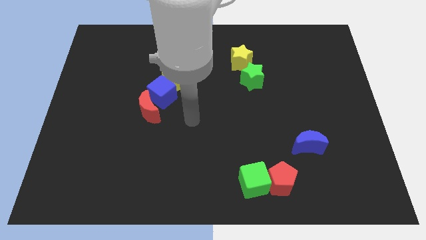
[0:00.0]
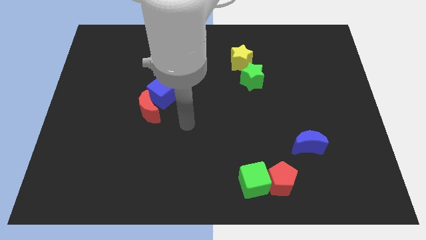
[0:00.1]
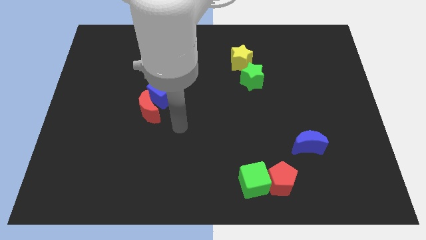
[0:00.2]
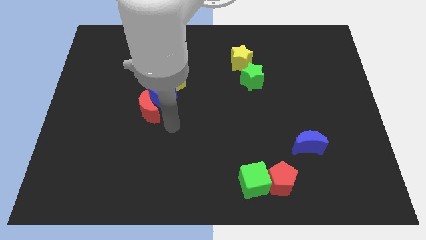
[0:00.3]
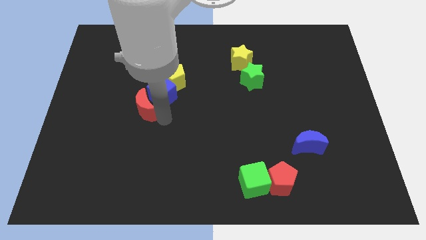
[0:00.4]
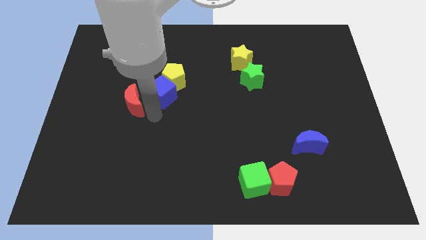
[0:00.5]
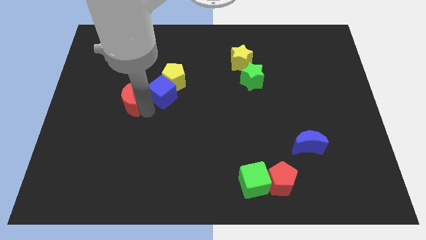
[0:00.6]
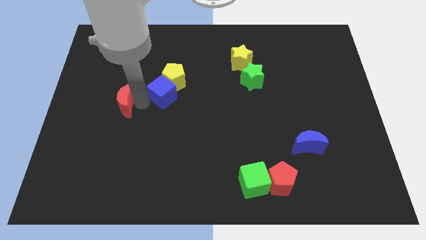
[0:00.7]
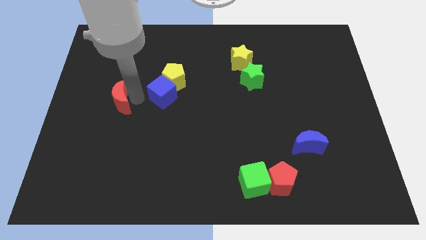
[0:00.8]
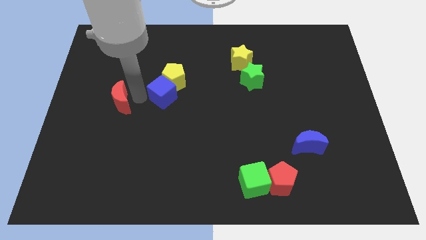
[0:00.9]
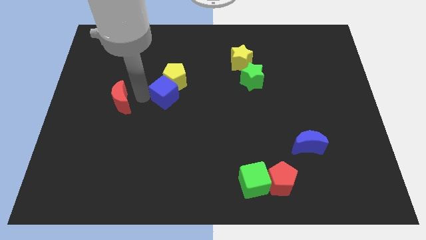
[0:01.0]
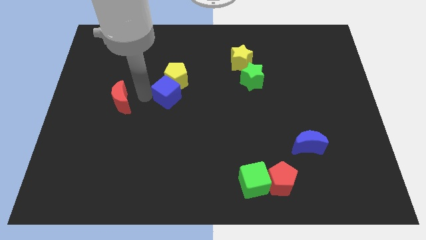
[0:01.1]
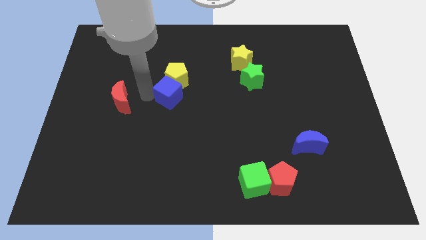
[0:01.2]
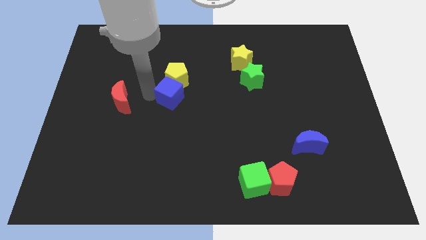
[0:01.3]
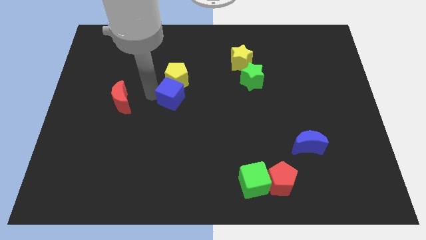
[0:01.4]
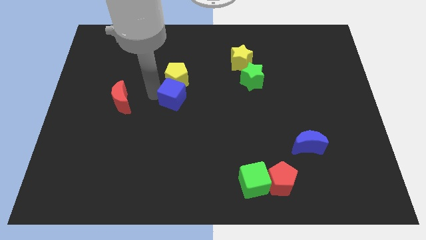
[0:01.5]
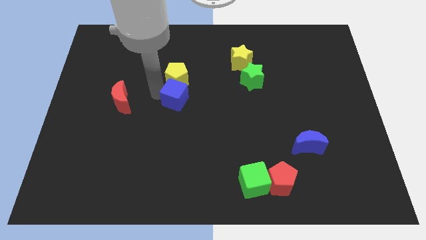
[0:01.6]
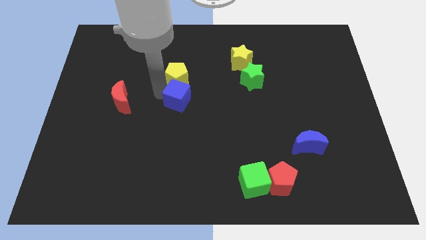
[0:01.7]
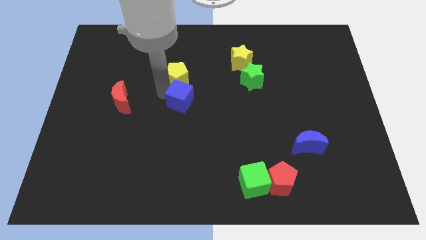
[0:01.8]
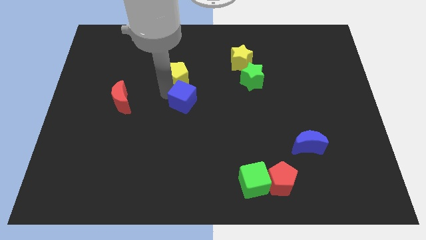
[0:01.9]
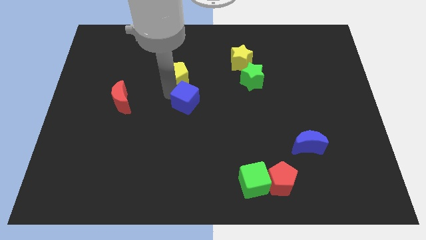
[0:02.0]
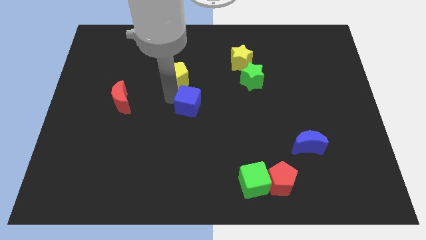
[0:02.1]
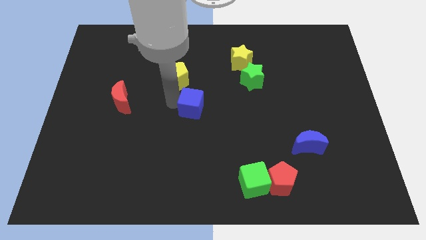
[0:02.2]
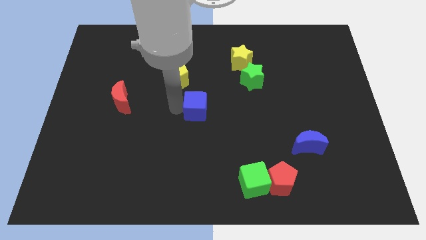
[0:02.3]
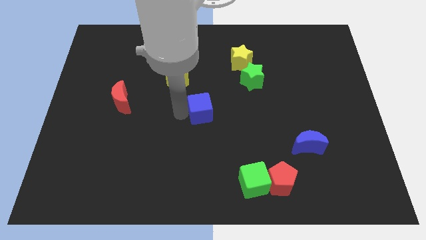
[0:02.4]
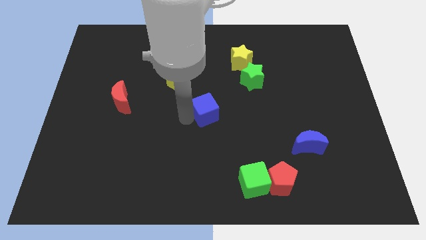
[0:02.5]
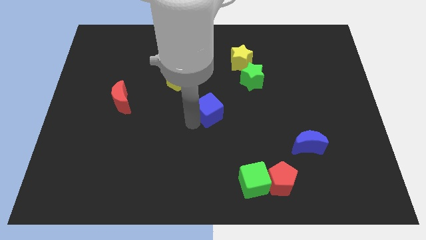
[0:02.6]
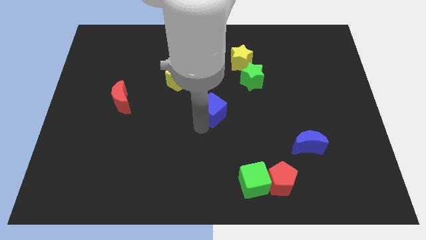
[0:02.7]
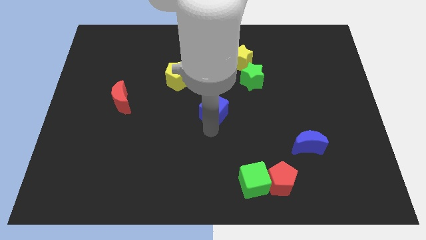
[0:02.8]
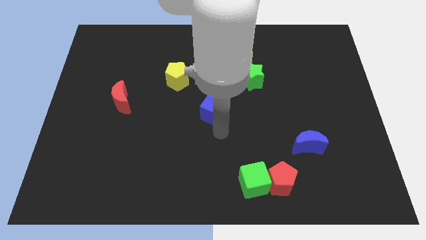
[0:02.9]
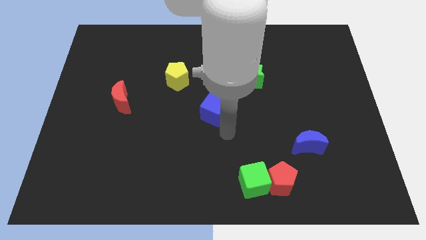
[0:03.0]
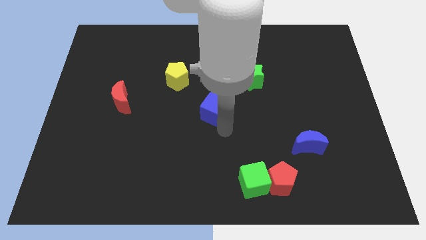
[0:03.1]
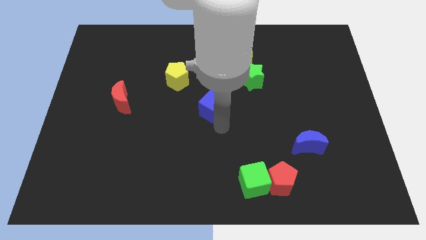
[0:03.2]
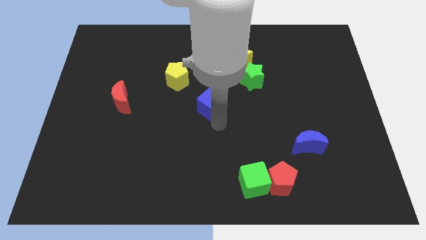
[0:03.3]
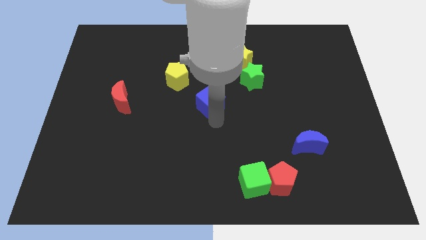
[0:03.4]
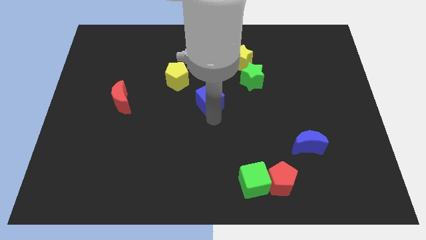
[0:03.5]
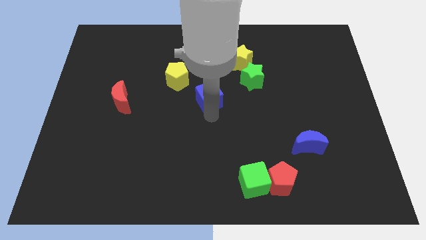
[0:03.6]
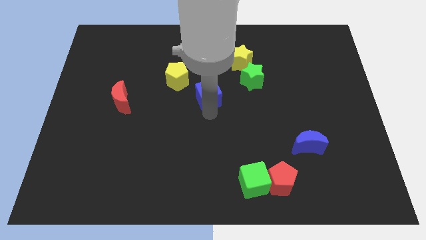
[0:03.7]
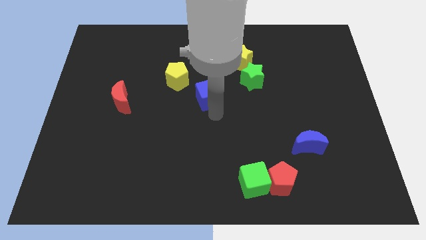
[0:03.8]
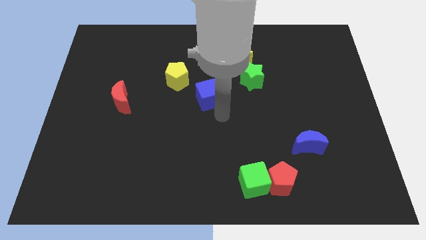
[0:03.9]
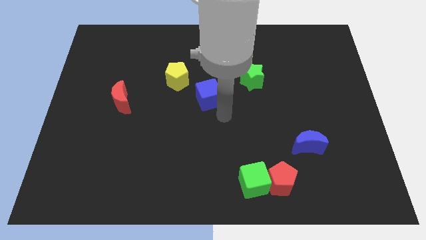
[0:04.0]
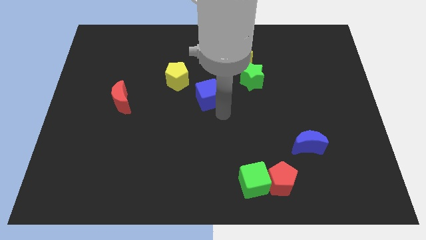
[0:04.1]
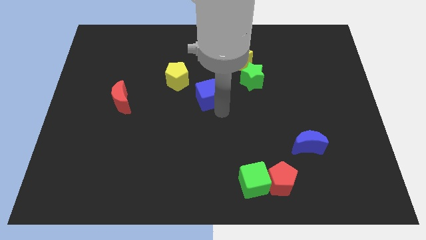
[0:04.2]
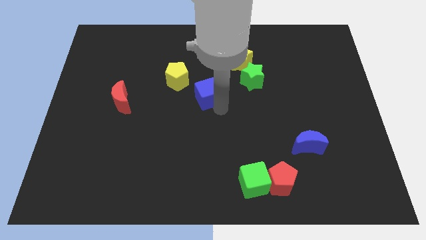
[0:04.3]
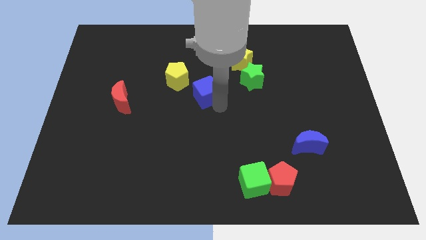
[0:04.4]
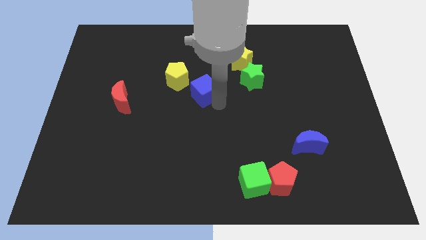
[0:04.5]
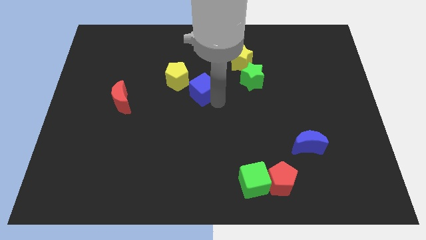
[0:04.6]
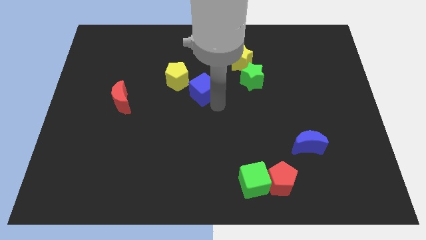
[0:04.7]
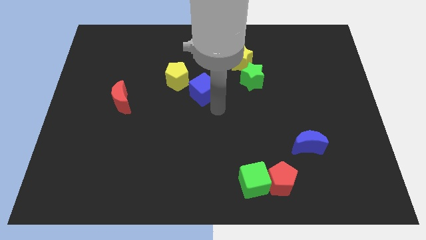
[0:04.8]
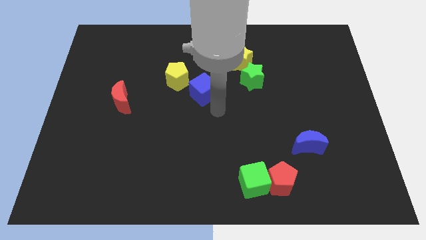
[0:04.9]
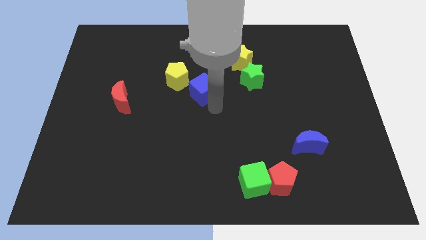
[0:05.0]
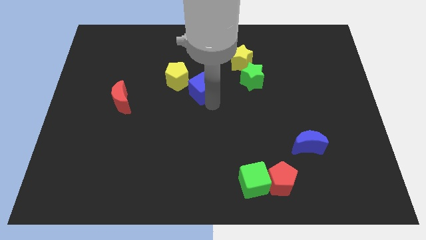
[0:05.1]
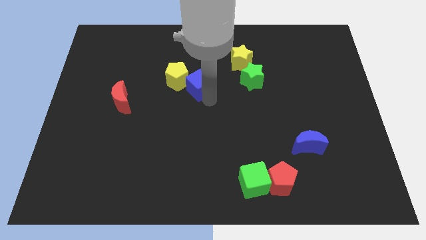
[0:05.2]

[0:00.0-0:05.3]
slightly move the blue cube upwards and right

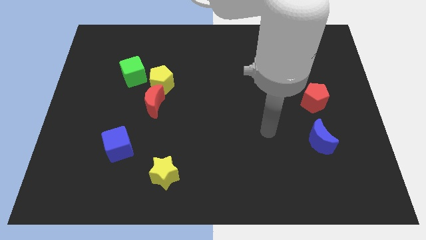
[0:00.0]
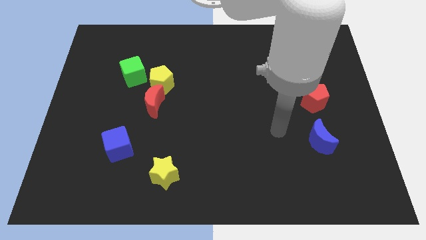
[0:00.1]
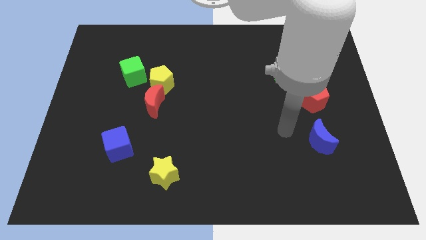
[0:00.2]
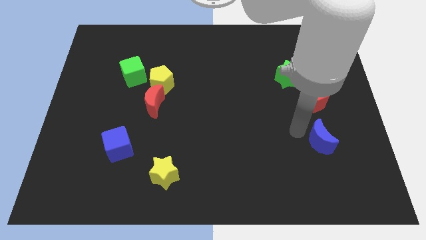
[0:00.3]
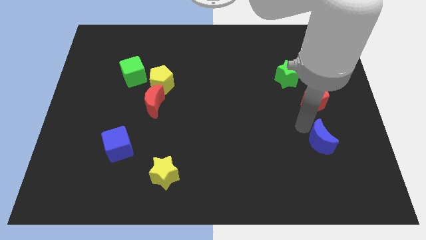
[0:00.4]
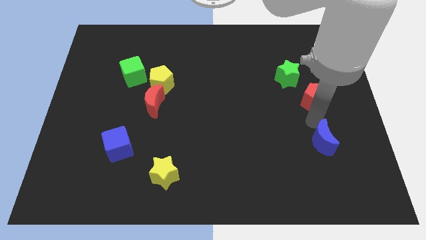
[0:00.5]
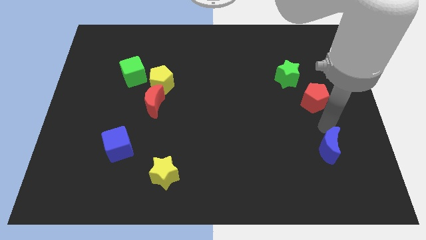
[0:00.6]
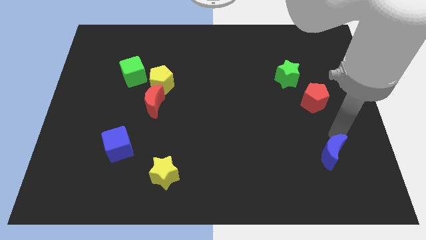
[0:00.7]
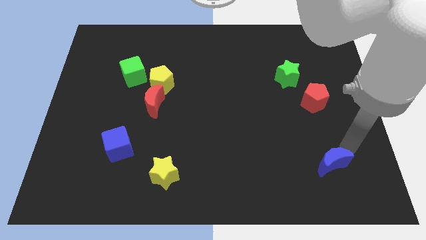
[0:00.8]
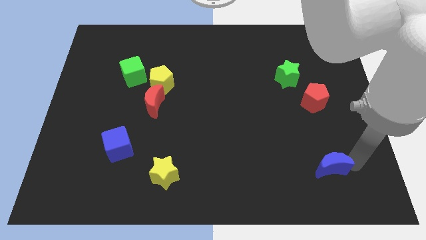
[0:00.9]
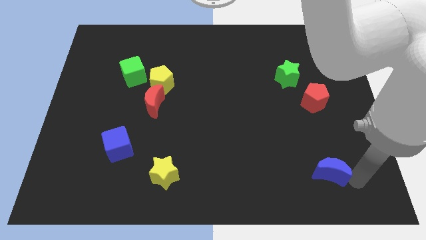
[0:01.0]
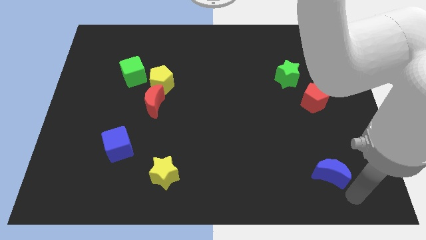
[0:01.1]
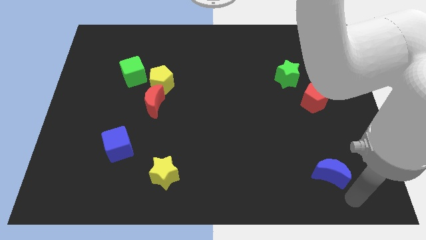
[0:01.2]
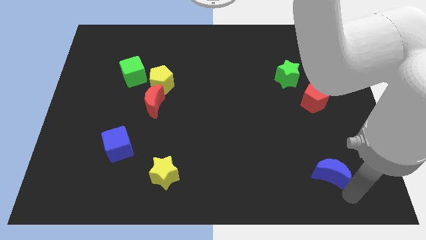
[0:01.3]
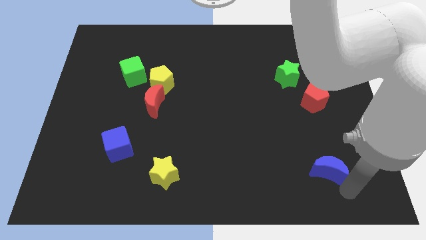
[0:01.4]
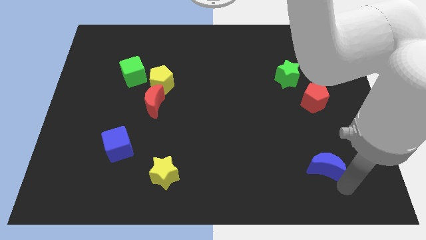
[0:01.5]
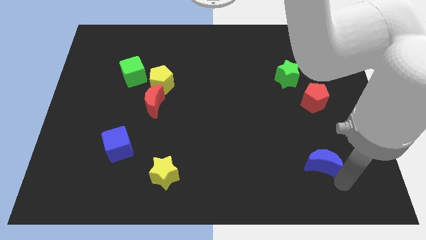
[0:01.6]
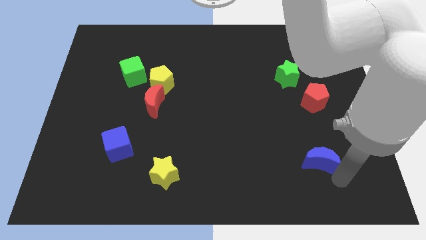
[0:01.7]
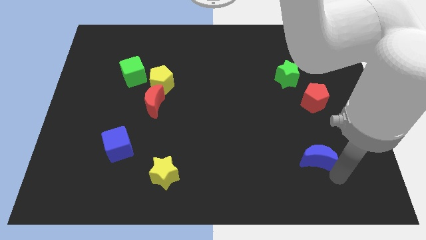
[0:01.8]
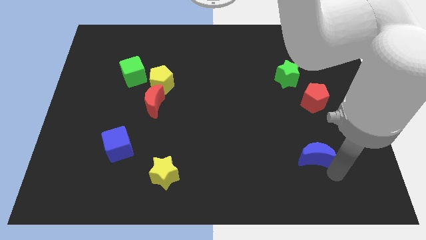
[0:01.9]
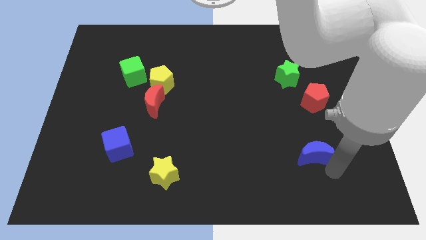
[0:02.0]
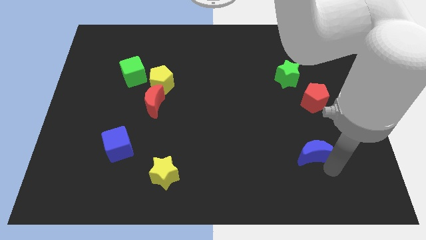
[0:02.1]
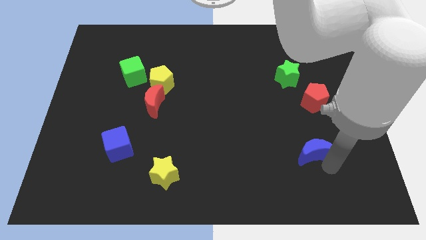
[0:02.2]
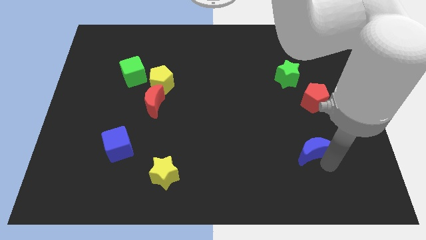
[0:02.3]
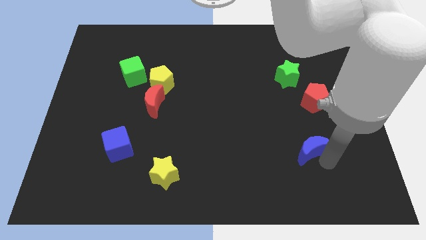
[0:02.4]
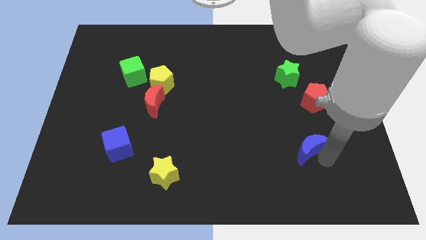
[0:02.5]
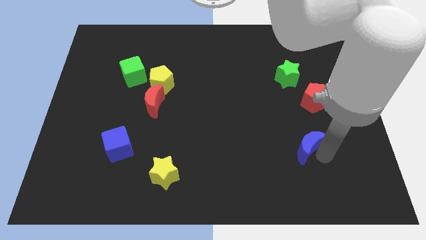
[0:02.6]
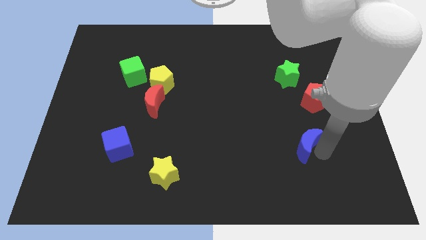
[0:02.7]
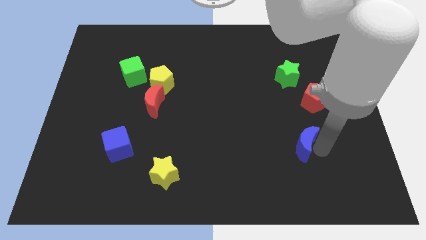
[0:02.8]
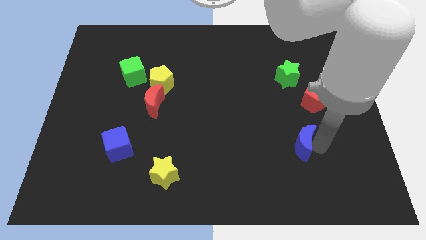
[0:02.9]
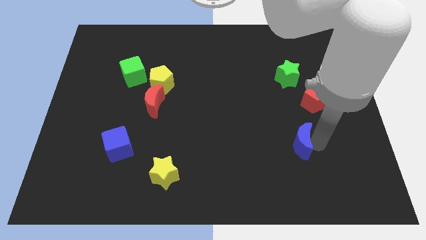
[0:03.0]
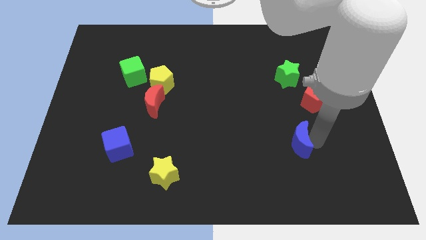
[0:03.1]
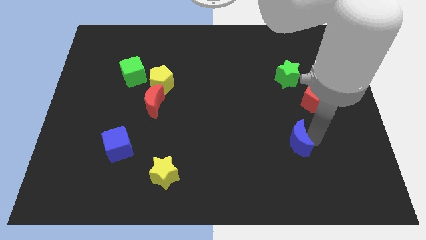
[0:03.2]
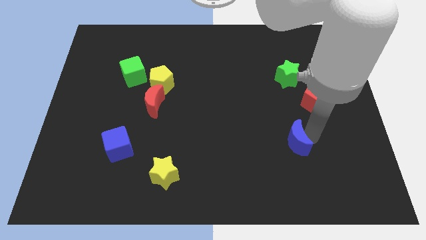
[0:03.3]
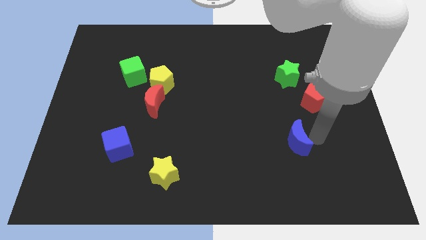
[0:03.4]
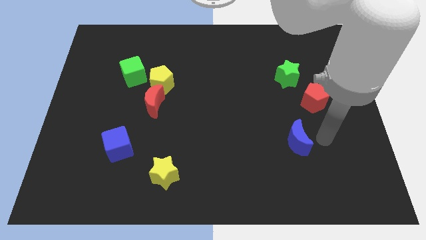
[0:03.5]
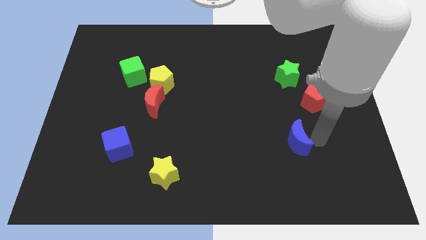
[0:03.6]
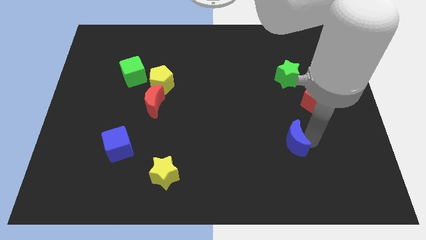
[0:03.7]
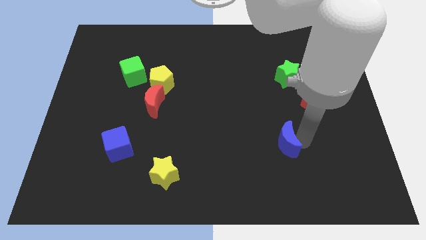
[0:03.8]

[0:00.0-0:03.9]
push the blue moon left a little
